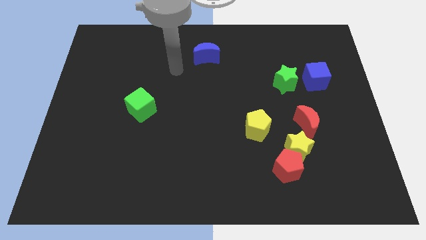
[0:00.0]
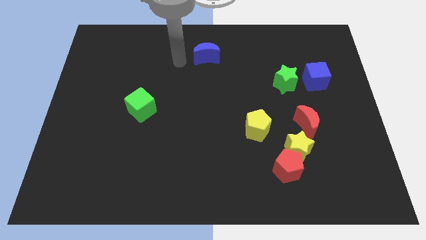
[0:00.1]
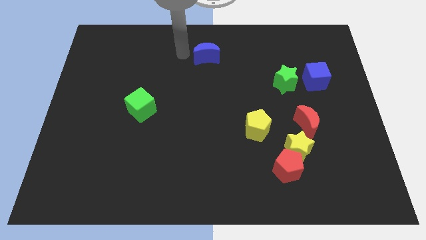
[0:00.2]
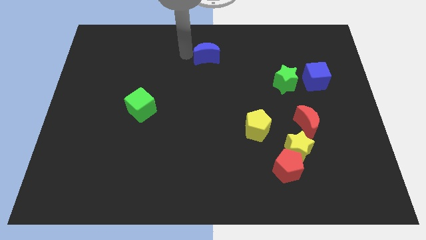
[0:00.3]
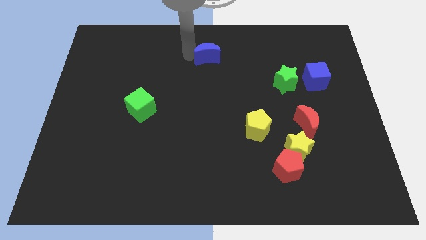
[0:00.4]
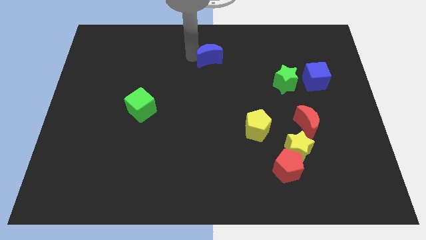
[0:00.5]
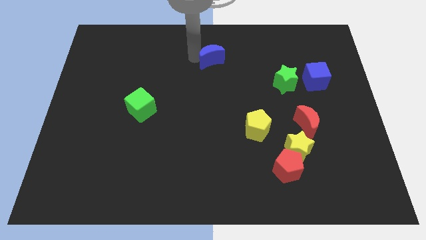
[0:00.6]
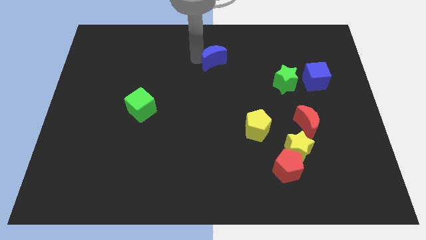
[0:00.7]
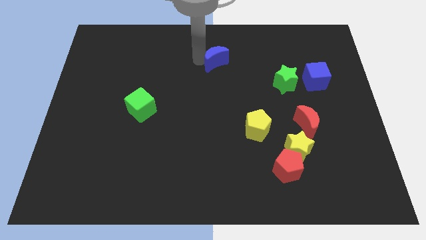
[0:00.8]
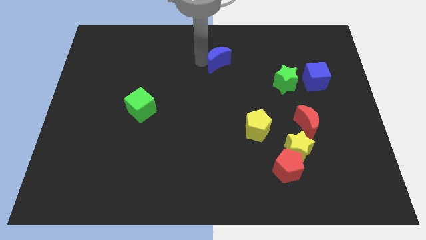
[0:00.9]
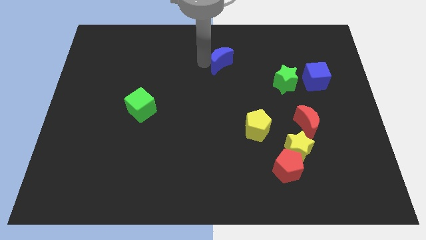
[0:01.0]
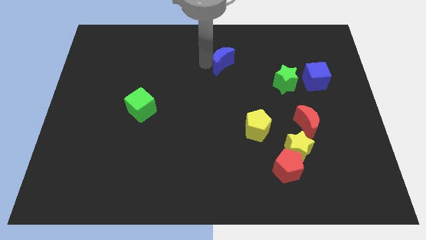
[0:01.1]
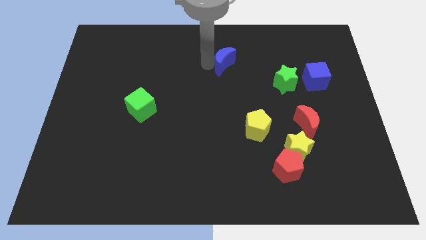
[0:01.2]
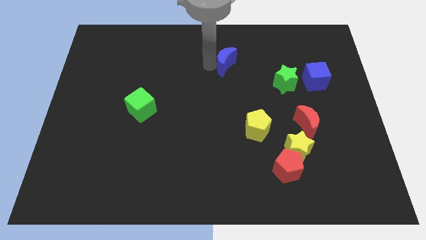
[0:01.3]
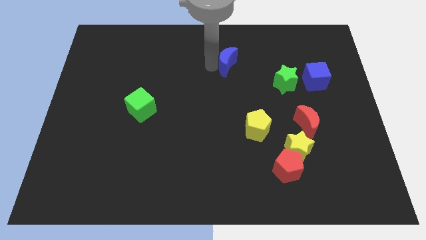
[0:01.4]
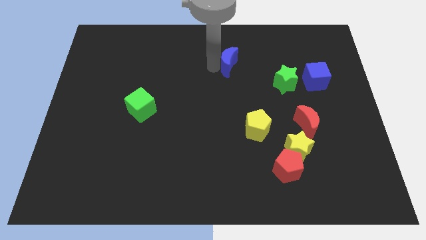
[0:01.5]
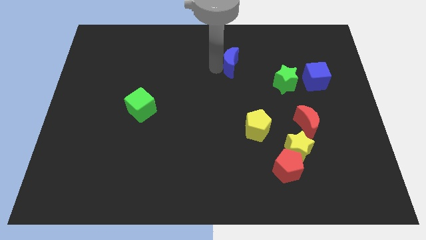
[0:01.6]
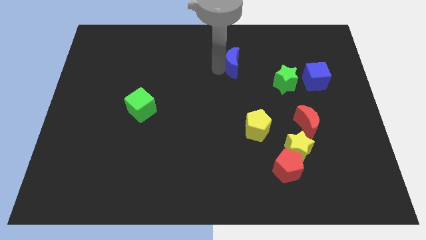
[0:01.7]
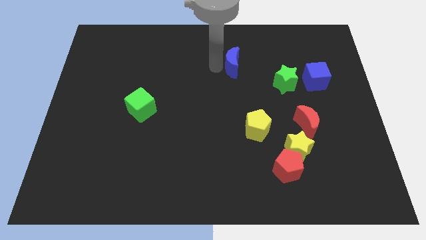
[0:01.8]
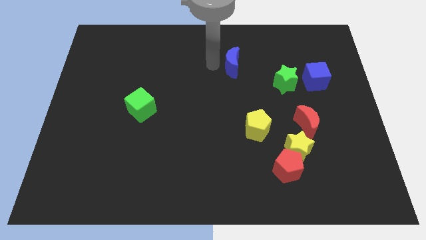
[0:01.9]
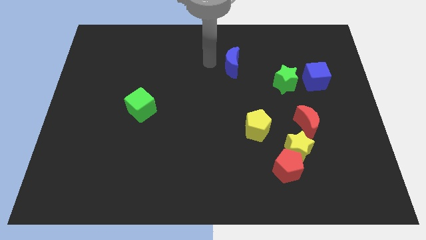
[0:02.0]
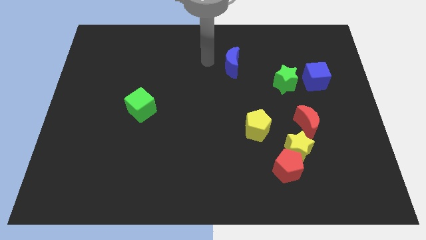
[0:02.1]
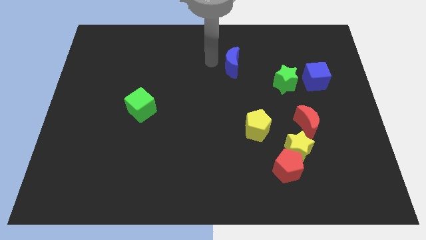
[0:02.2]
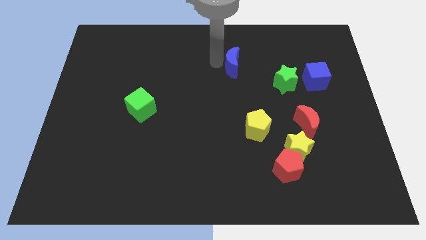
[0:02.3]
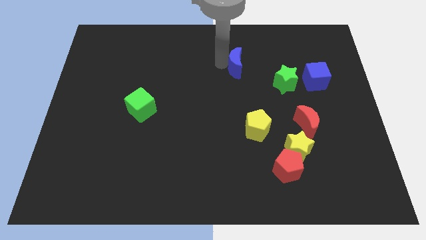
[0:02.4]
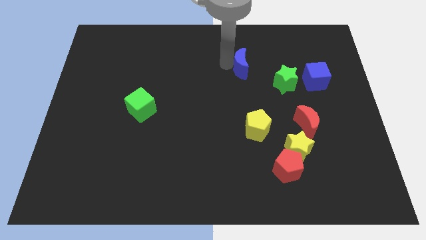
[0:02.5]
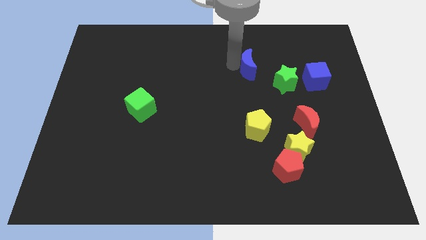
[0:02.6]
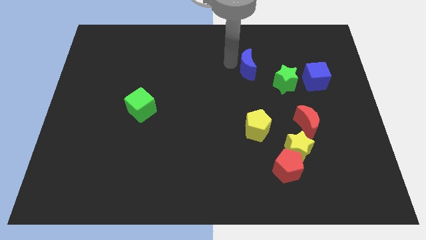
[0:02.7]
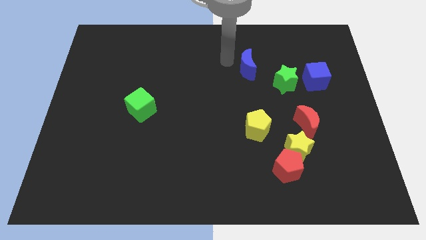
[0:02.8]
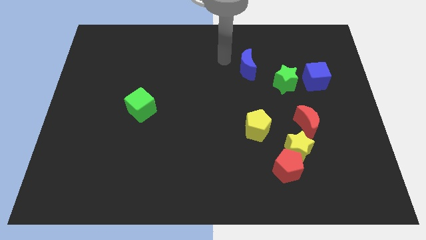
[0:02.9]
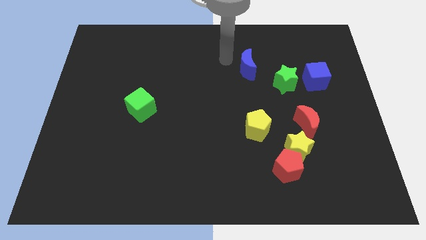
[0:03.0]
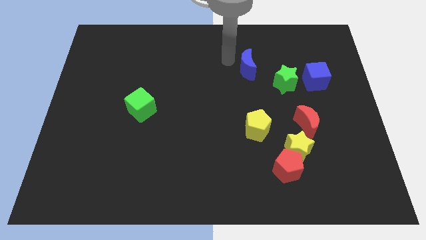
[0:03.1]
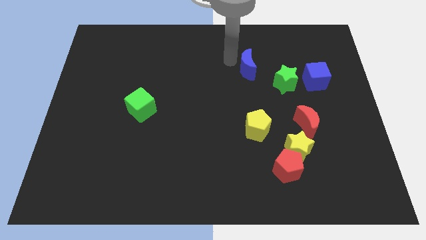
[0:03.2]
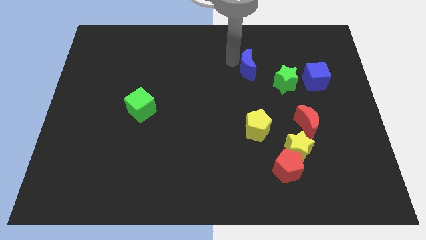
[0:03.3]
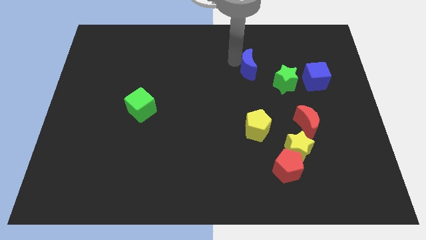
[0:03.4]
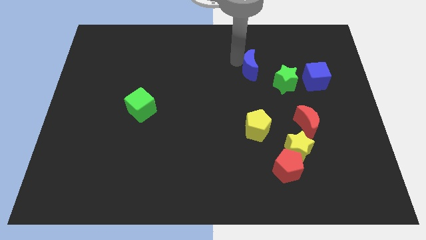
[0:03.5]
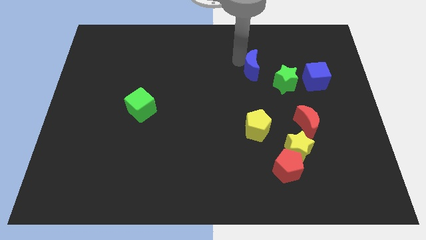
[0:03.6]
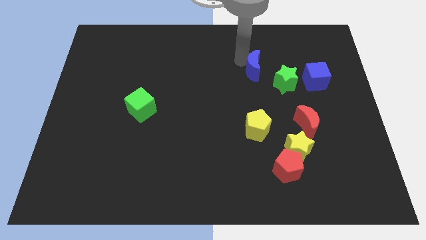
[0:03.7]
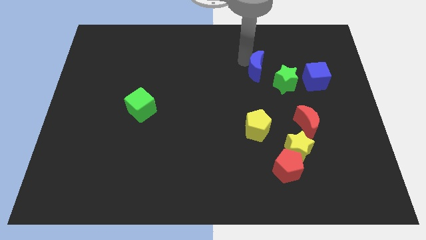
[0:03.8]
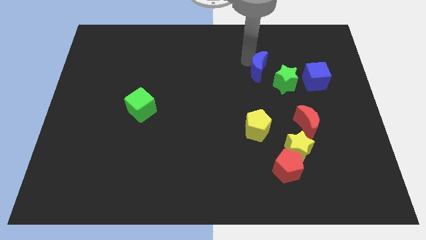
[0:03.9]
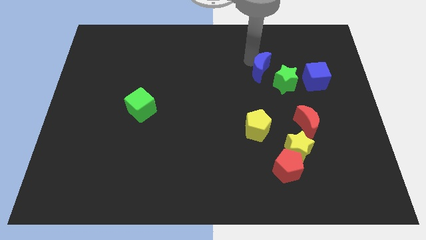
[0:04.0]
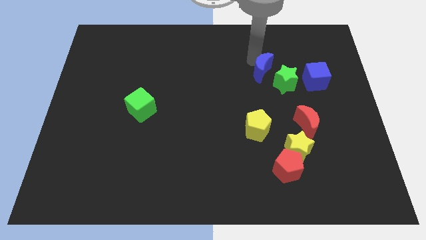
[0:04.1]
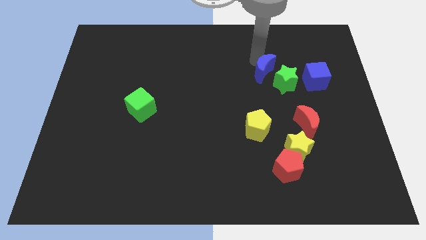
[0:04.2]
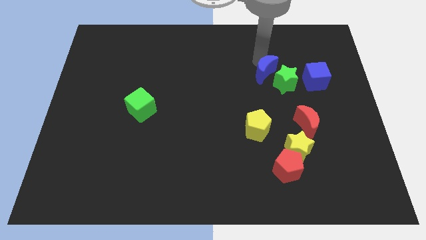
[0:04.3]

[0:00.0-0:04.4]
put the blue moon to the green star

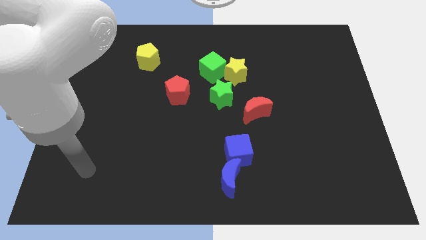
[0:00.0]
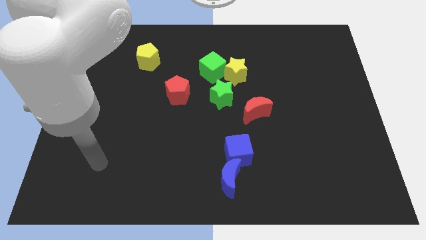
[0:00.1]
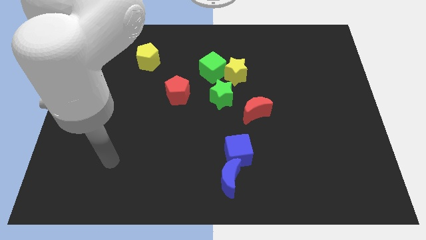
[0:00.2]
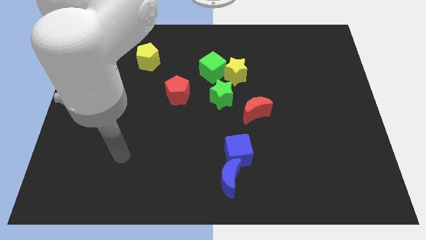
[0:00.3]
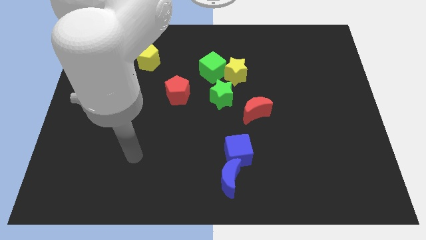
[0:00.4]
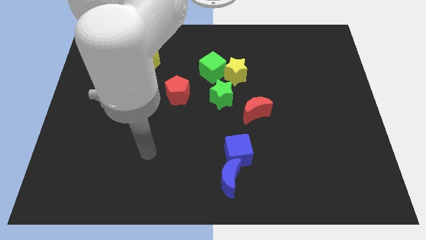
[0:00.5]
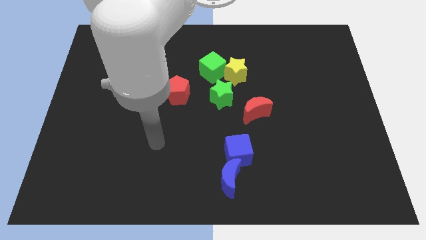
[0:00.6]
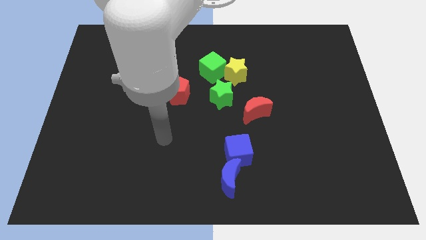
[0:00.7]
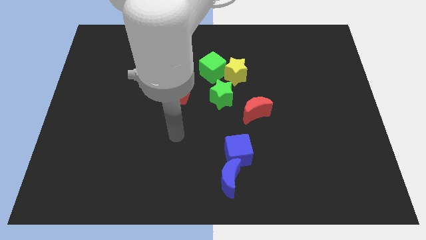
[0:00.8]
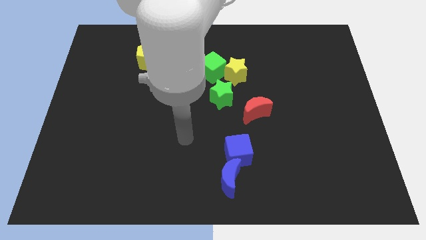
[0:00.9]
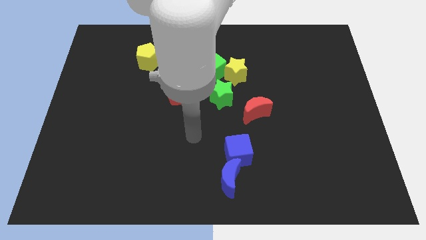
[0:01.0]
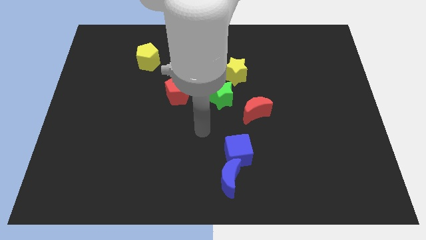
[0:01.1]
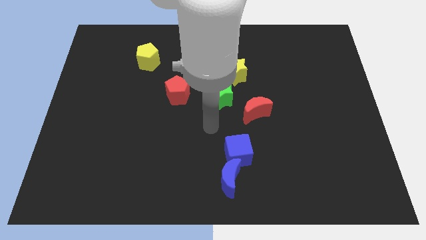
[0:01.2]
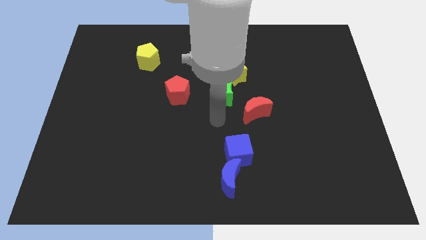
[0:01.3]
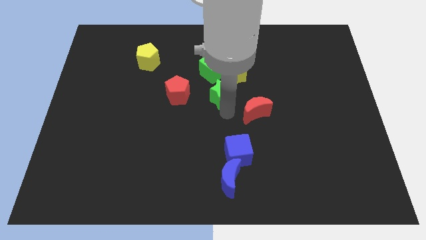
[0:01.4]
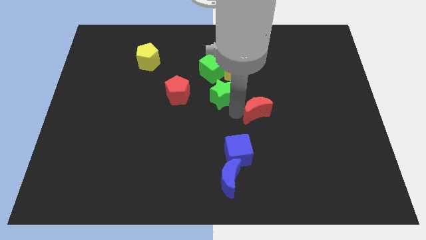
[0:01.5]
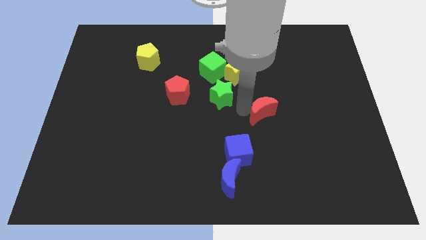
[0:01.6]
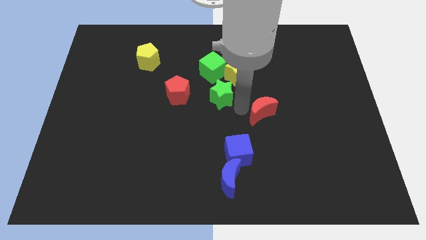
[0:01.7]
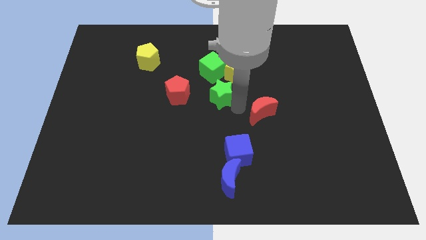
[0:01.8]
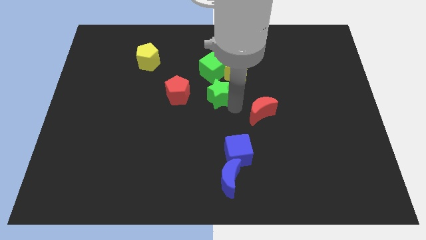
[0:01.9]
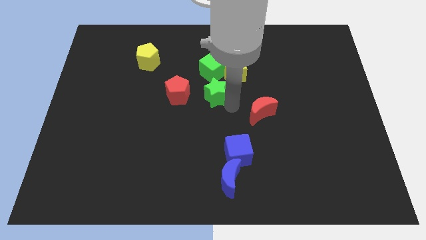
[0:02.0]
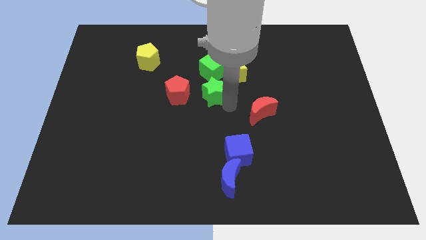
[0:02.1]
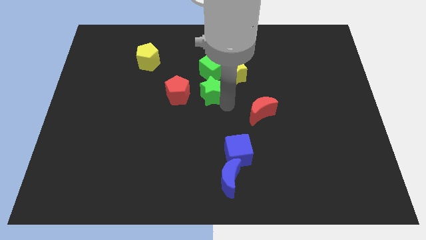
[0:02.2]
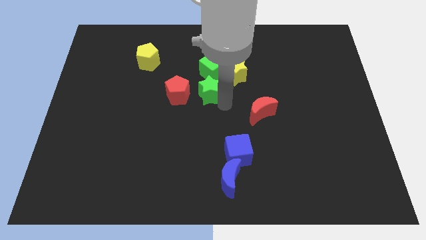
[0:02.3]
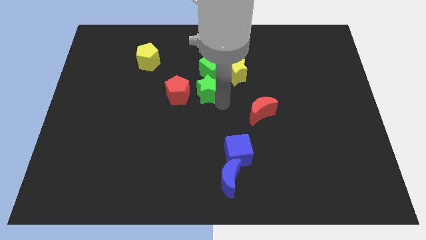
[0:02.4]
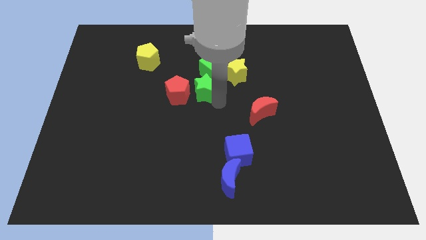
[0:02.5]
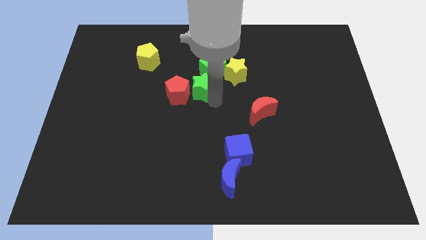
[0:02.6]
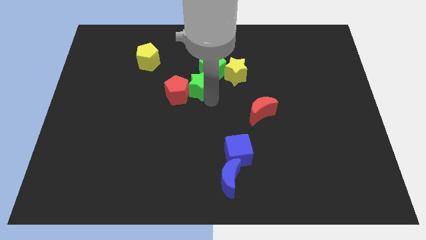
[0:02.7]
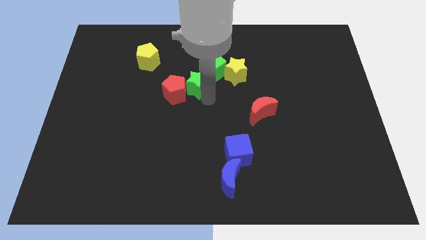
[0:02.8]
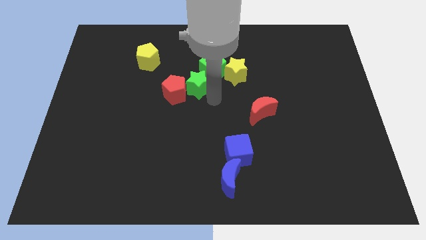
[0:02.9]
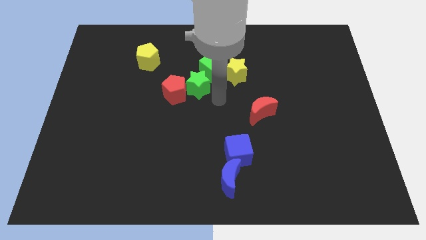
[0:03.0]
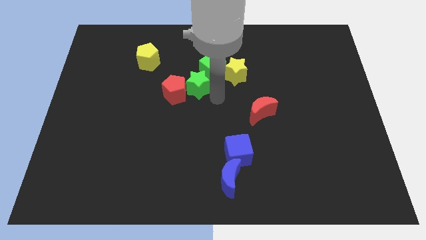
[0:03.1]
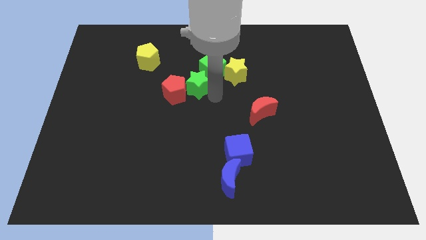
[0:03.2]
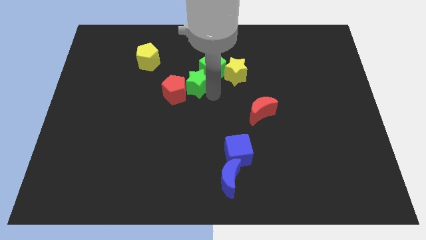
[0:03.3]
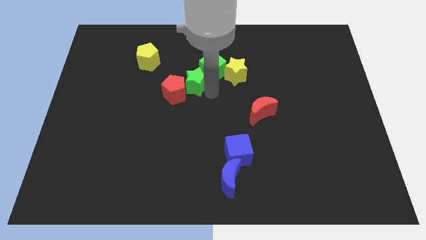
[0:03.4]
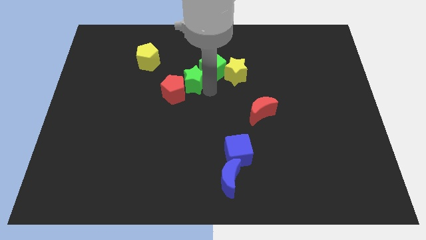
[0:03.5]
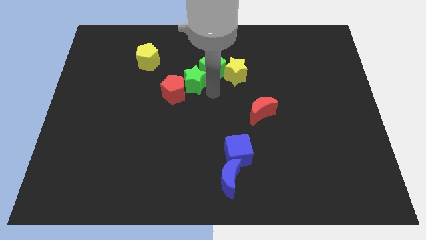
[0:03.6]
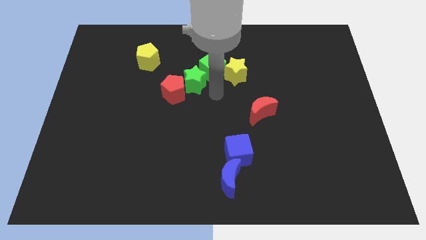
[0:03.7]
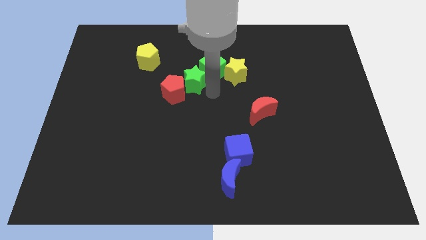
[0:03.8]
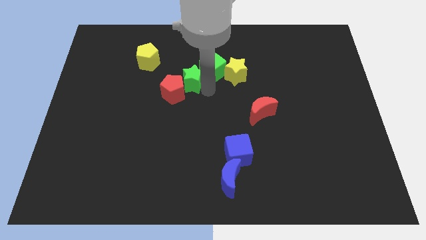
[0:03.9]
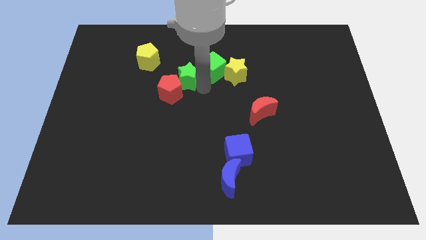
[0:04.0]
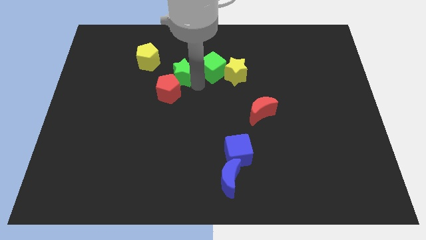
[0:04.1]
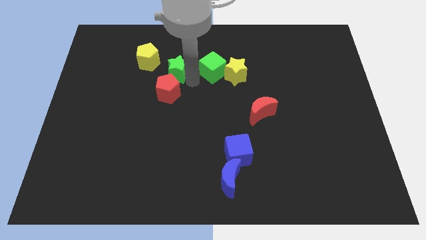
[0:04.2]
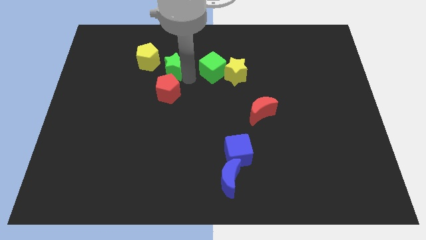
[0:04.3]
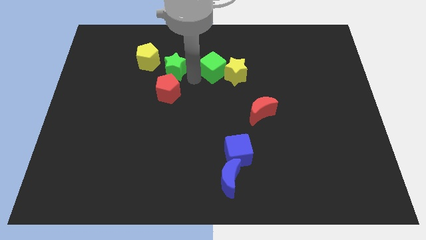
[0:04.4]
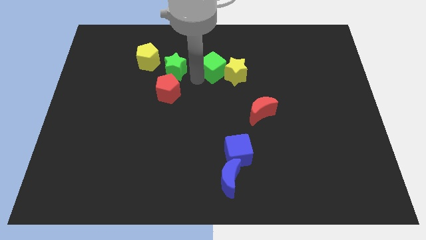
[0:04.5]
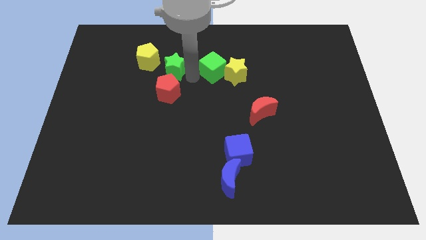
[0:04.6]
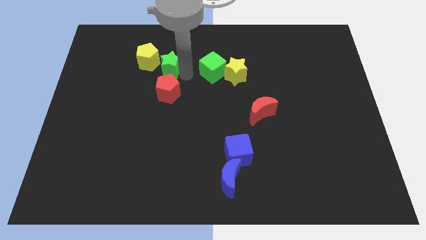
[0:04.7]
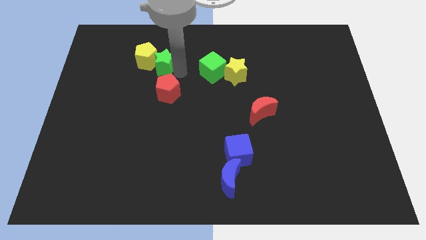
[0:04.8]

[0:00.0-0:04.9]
put the green star next to the yellow pentagon
